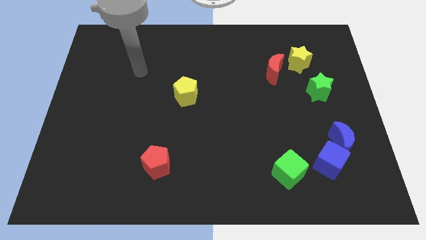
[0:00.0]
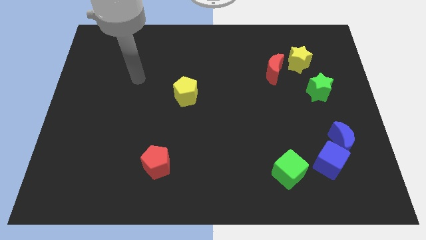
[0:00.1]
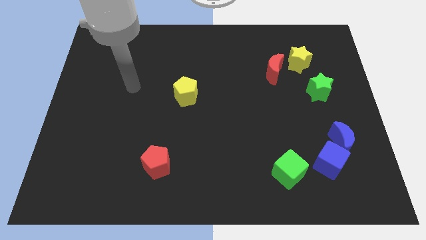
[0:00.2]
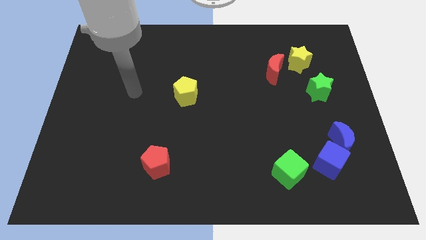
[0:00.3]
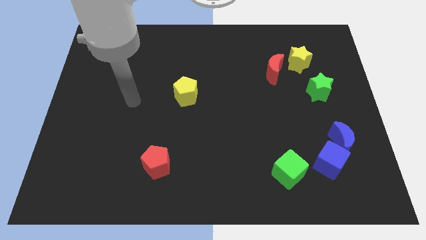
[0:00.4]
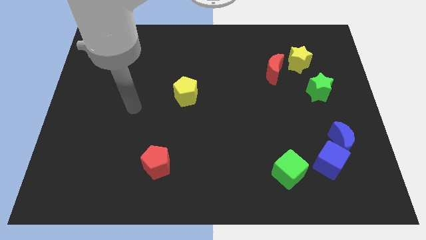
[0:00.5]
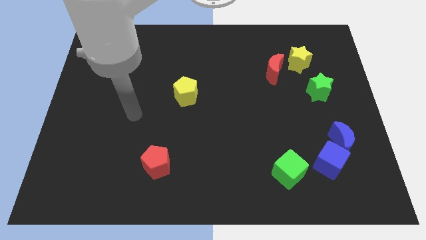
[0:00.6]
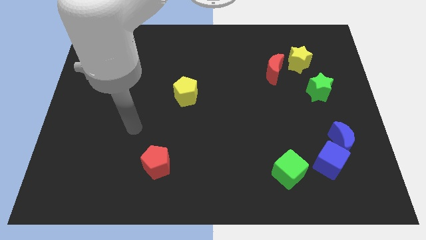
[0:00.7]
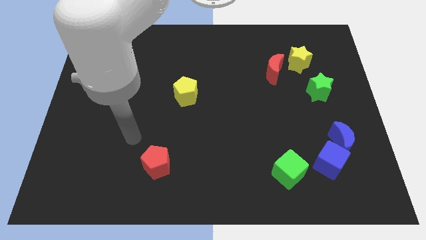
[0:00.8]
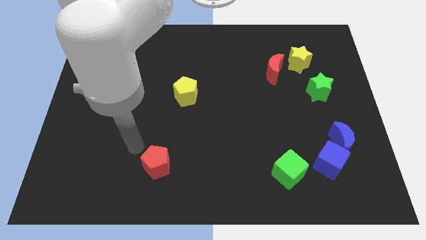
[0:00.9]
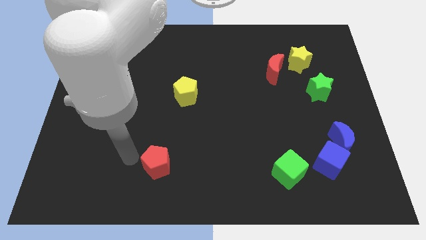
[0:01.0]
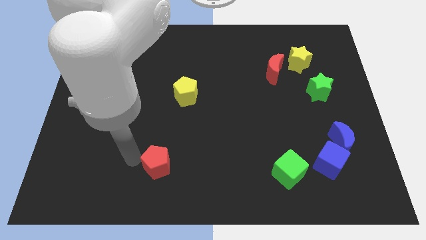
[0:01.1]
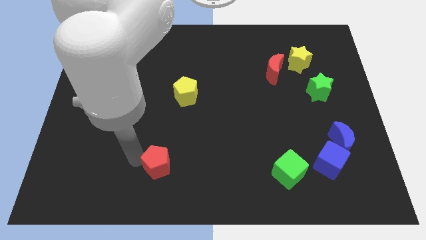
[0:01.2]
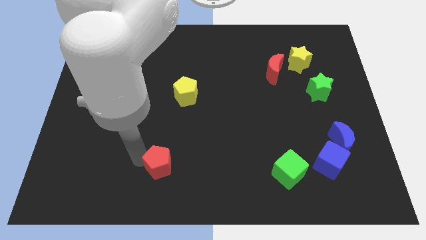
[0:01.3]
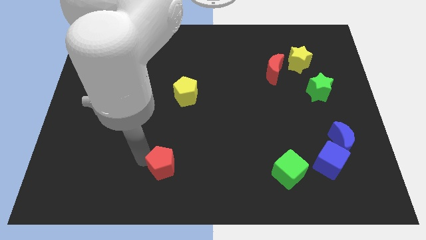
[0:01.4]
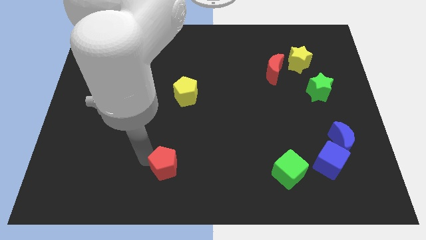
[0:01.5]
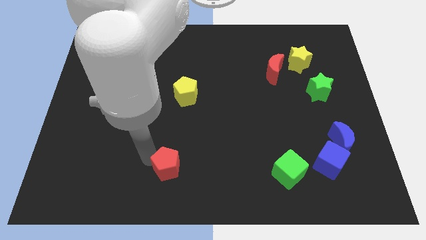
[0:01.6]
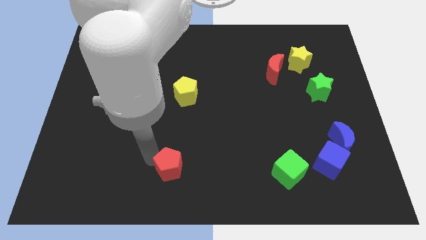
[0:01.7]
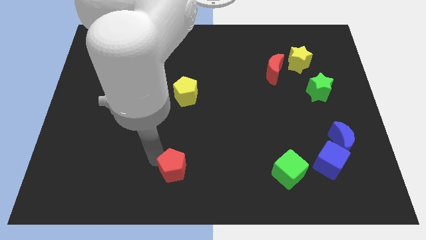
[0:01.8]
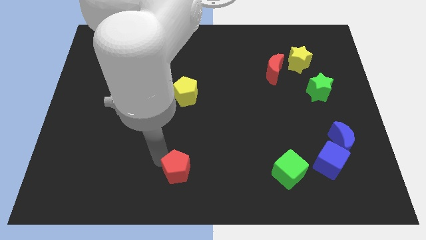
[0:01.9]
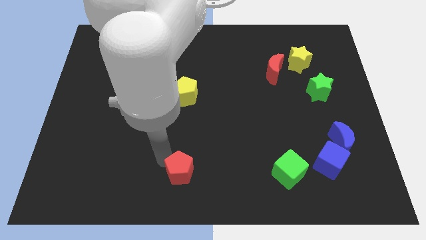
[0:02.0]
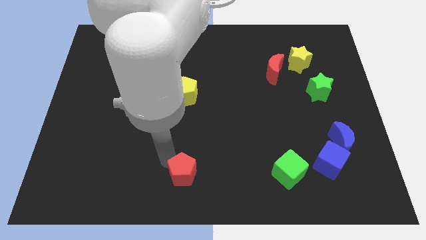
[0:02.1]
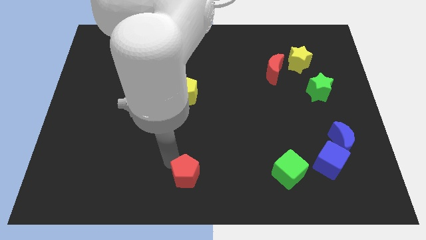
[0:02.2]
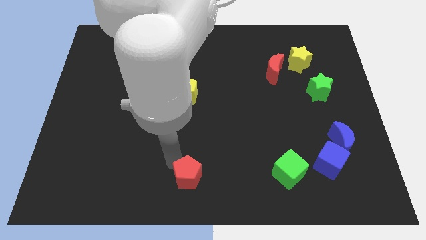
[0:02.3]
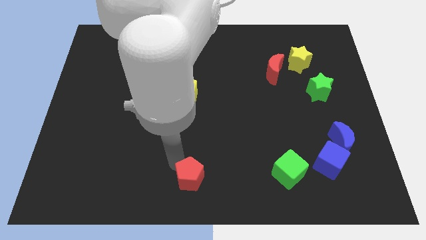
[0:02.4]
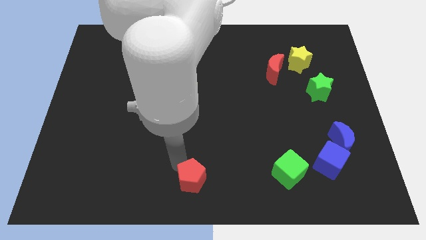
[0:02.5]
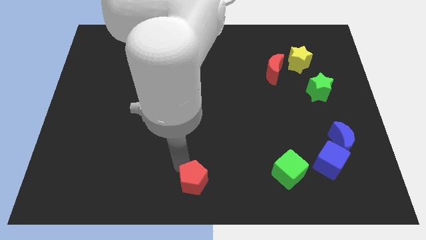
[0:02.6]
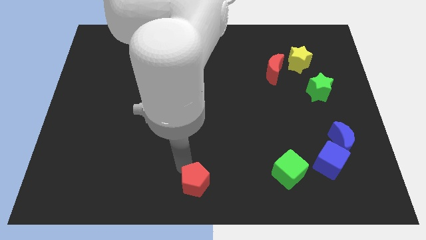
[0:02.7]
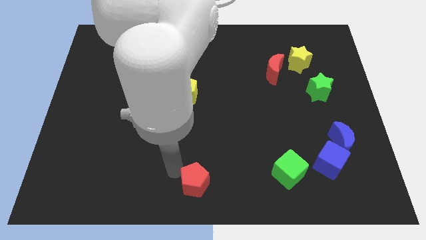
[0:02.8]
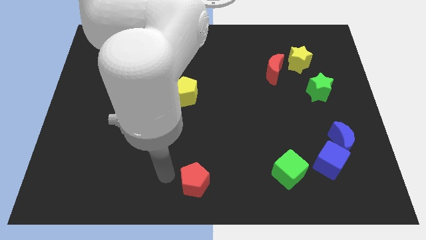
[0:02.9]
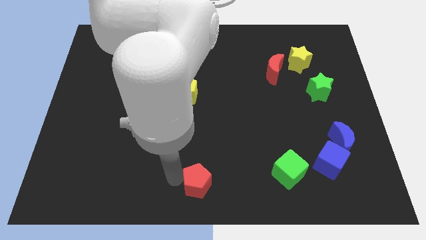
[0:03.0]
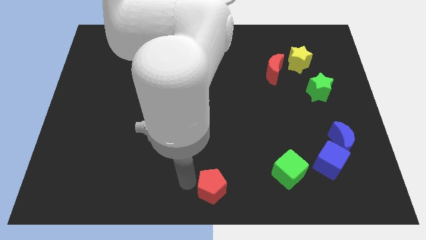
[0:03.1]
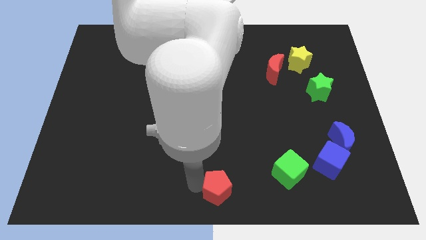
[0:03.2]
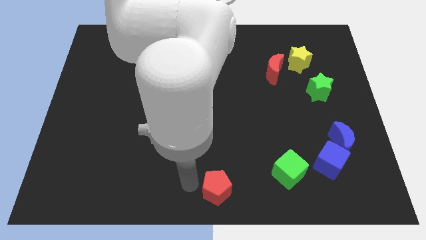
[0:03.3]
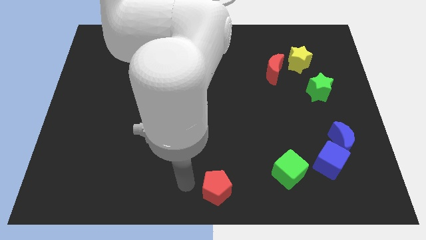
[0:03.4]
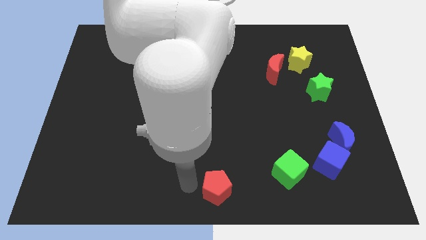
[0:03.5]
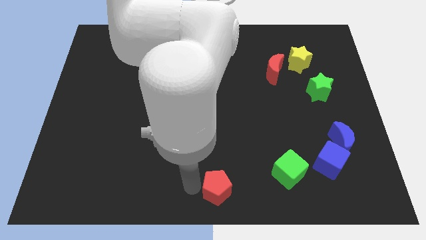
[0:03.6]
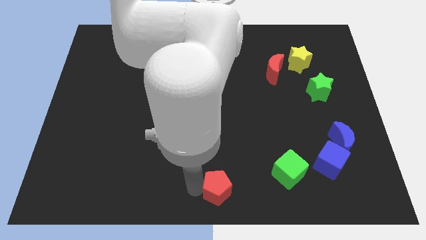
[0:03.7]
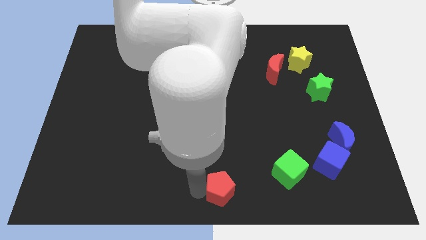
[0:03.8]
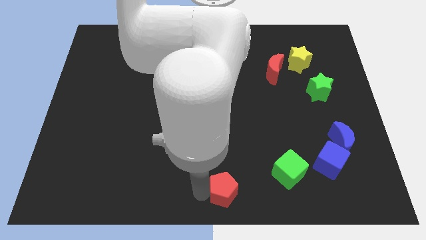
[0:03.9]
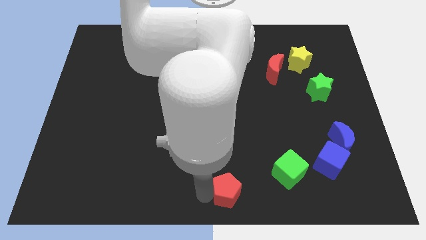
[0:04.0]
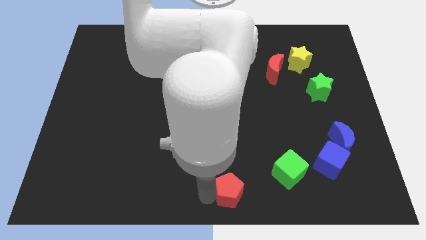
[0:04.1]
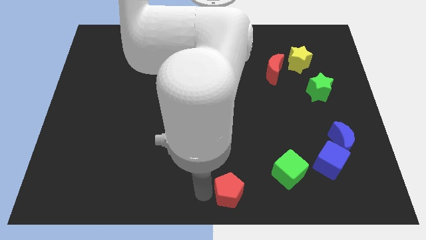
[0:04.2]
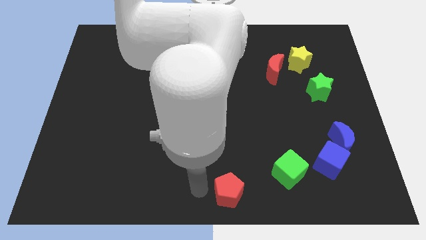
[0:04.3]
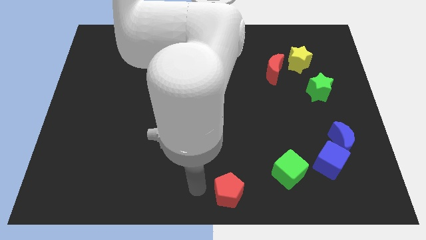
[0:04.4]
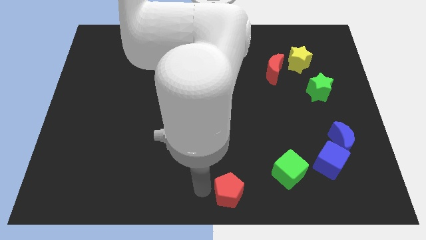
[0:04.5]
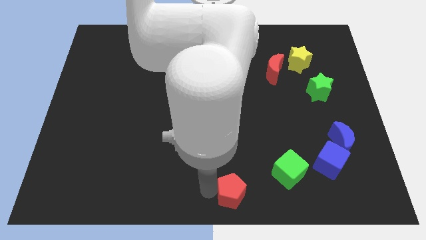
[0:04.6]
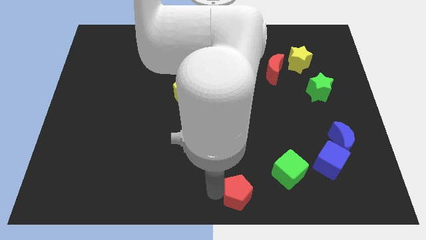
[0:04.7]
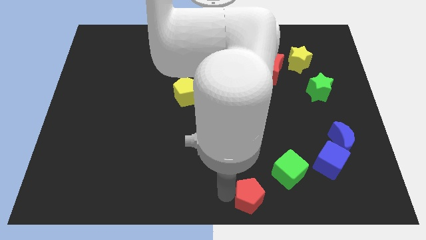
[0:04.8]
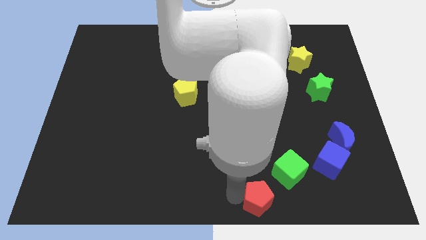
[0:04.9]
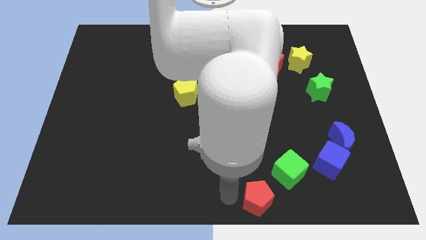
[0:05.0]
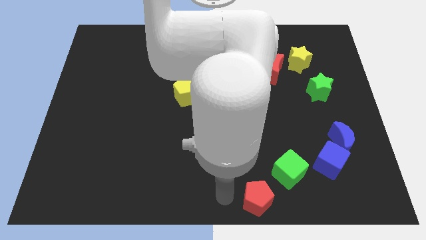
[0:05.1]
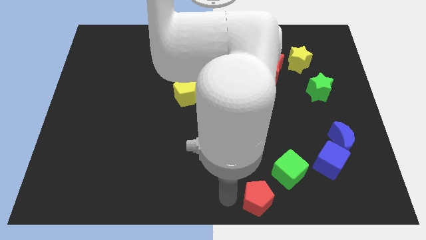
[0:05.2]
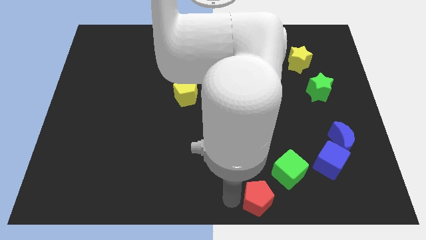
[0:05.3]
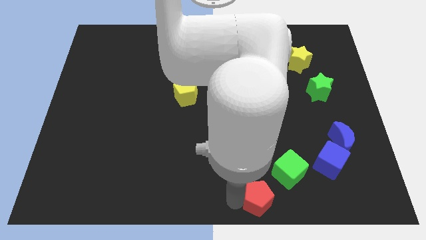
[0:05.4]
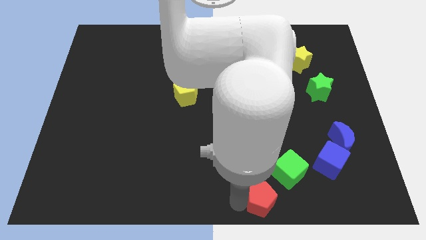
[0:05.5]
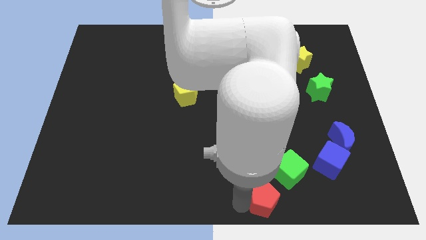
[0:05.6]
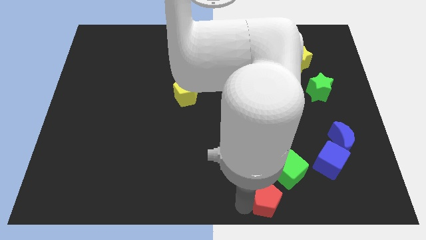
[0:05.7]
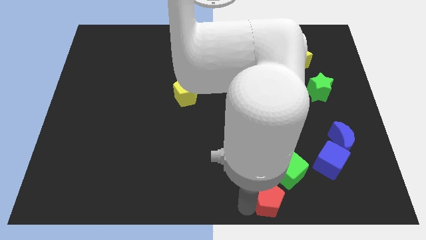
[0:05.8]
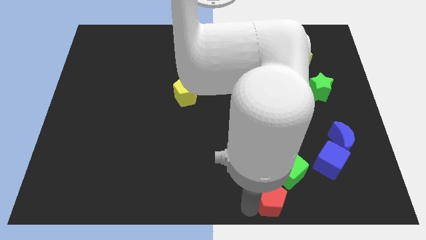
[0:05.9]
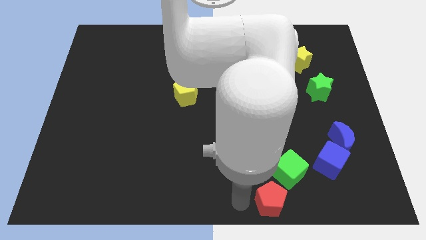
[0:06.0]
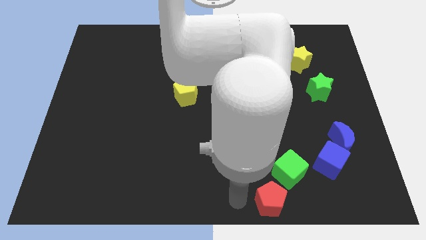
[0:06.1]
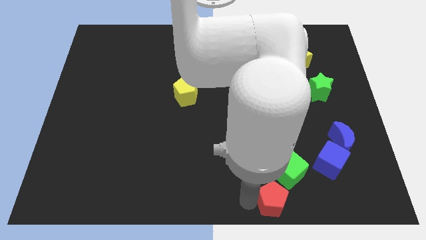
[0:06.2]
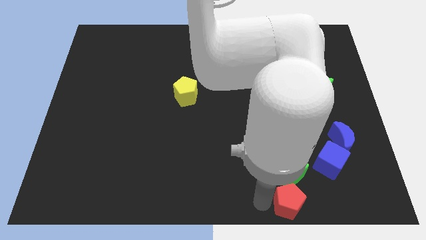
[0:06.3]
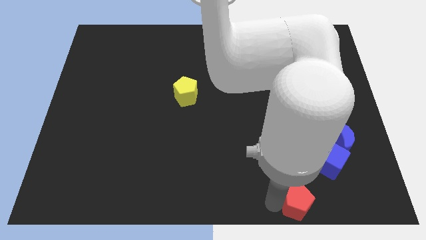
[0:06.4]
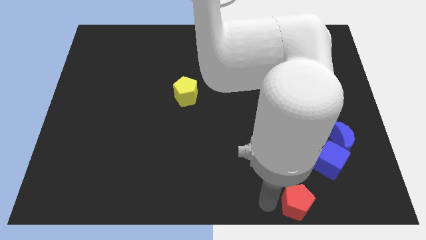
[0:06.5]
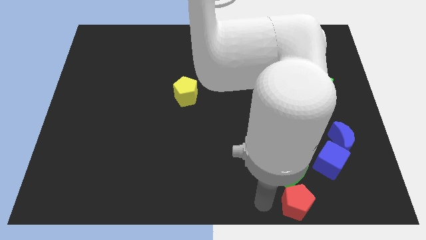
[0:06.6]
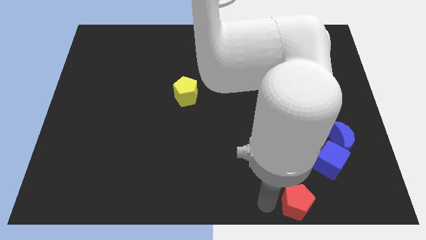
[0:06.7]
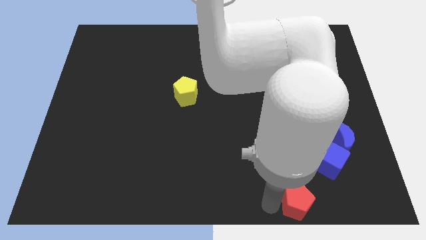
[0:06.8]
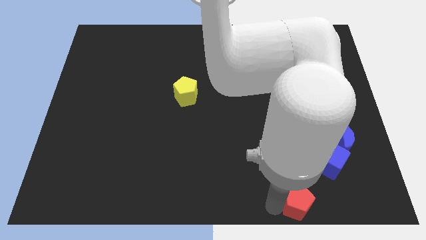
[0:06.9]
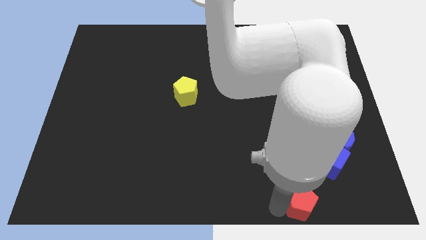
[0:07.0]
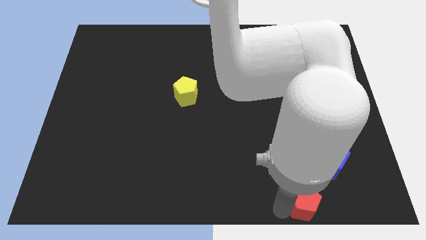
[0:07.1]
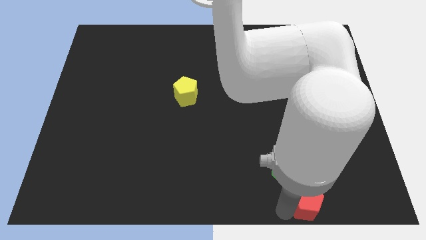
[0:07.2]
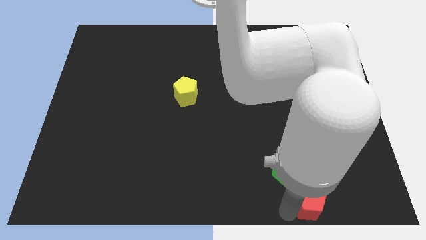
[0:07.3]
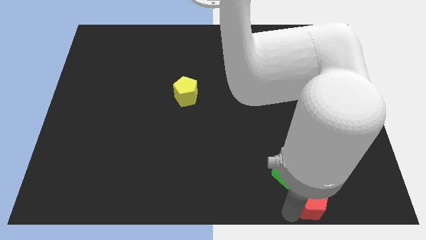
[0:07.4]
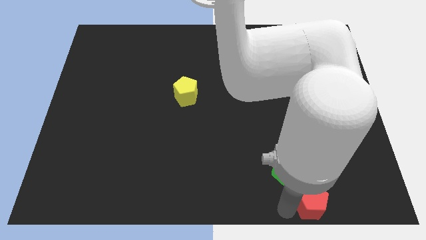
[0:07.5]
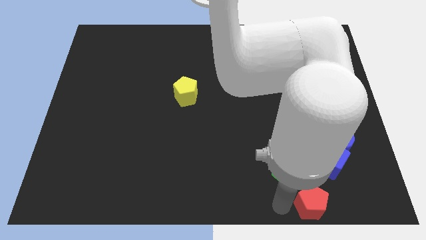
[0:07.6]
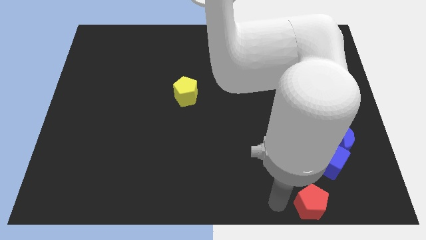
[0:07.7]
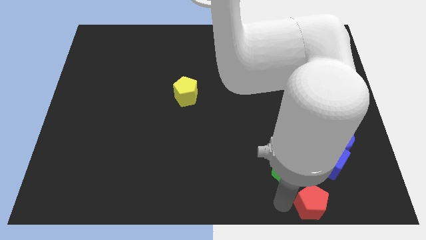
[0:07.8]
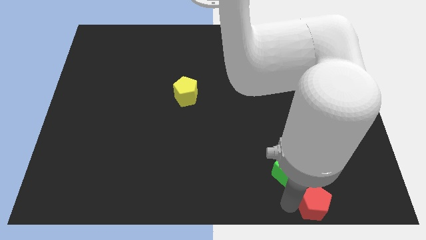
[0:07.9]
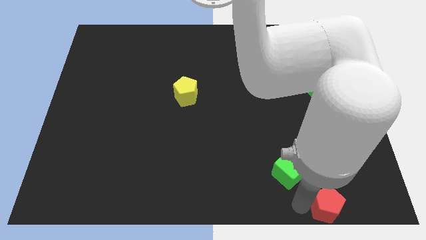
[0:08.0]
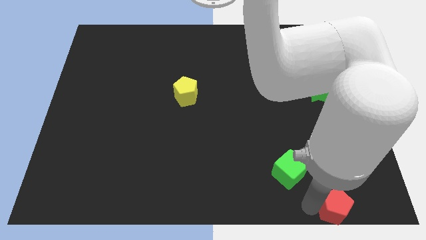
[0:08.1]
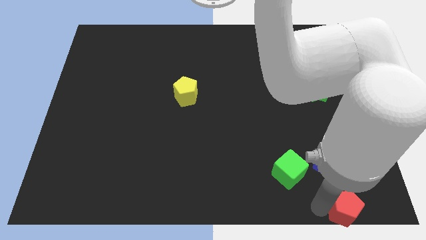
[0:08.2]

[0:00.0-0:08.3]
slide the red pentagon to the bottom right
